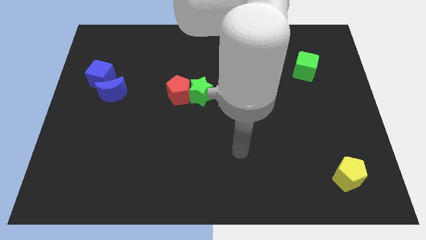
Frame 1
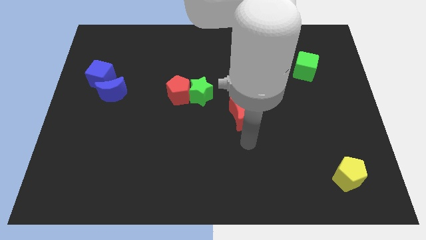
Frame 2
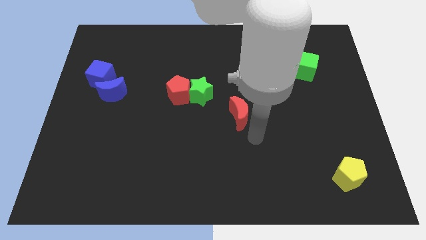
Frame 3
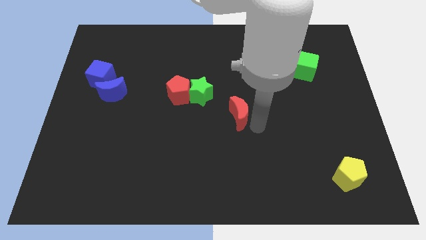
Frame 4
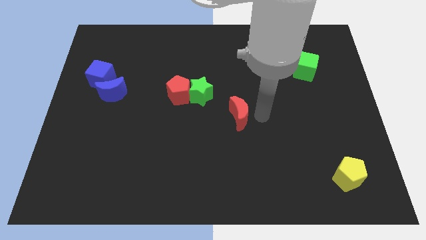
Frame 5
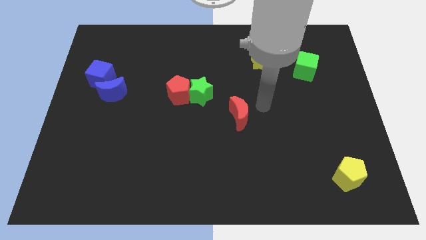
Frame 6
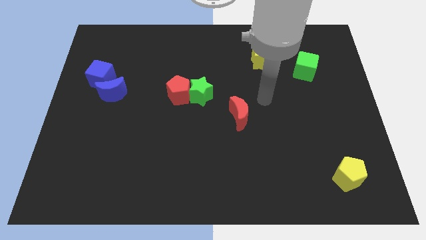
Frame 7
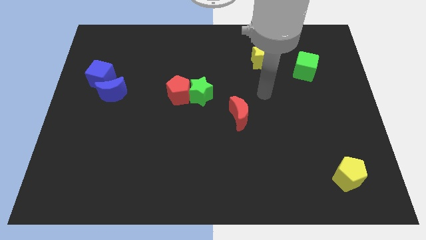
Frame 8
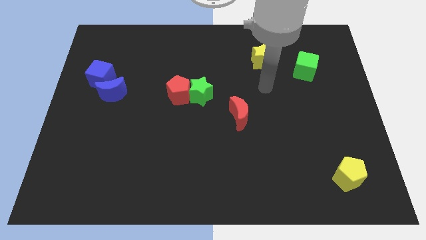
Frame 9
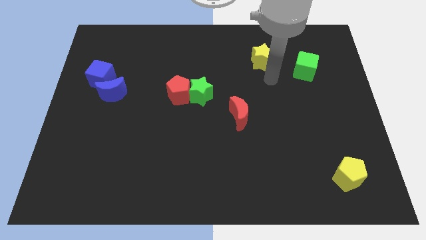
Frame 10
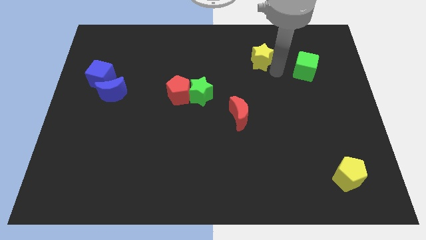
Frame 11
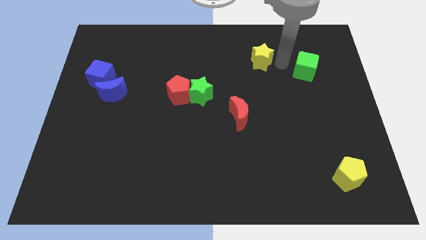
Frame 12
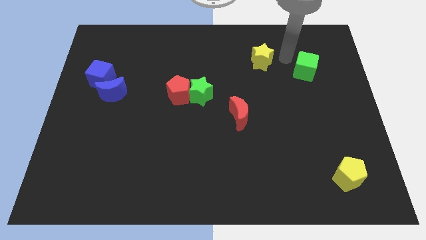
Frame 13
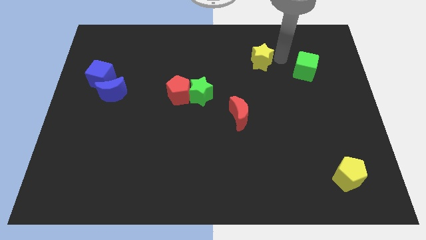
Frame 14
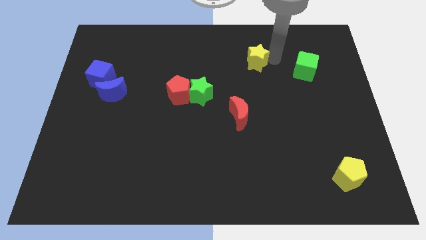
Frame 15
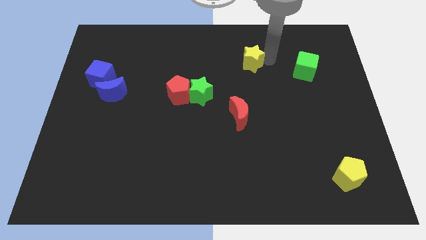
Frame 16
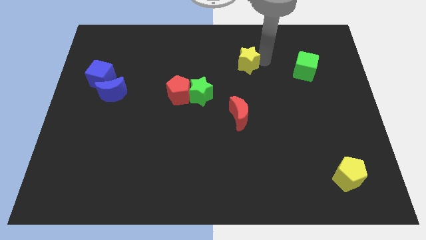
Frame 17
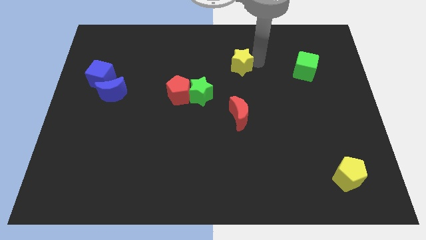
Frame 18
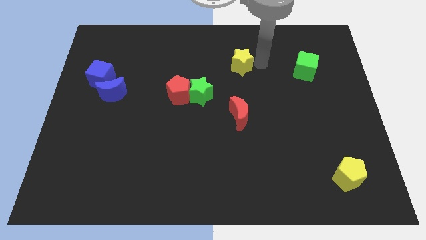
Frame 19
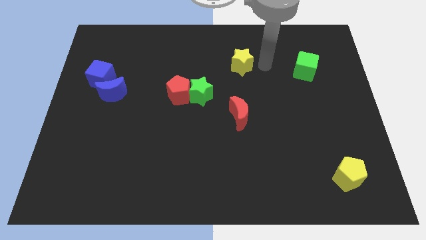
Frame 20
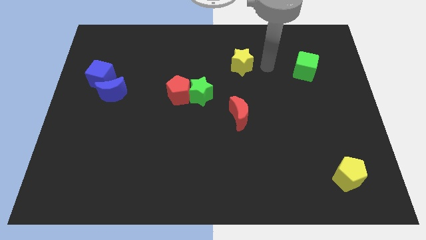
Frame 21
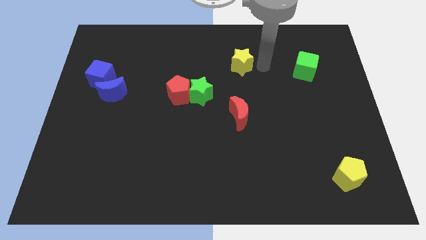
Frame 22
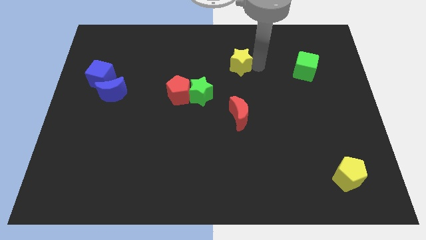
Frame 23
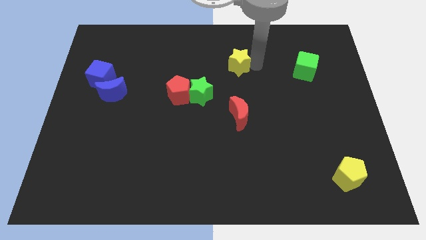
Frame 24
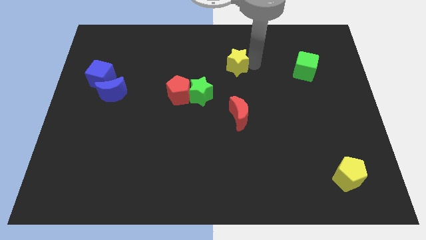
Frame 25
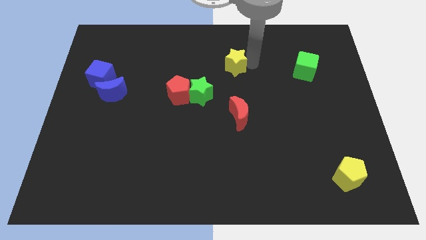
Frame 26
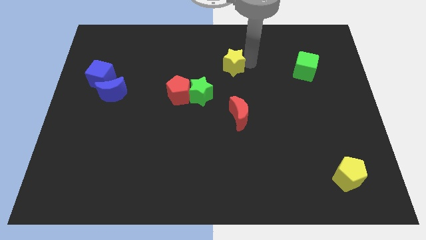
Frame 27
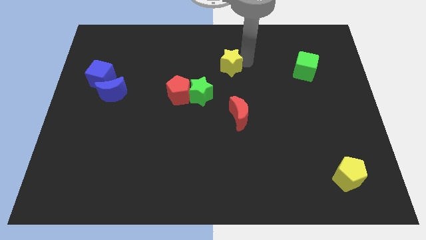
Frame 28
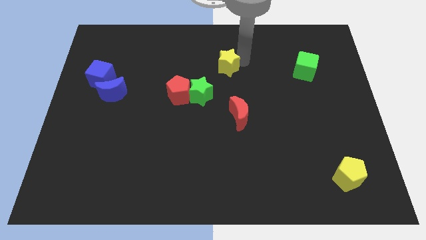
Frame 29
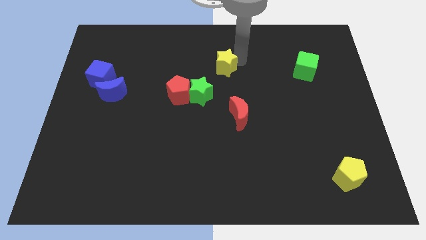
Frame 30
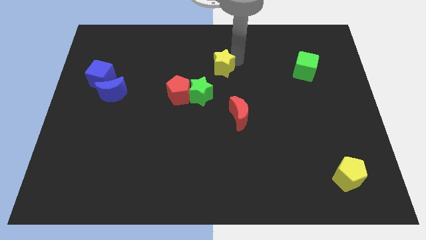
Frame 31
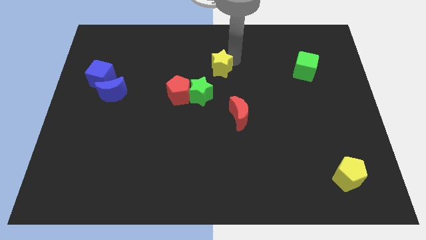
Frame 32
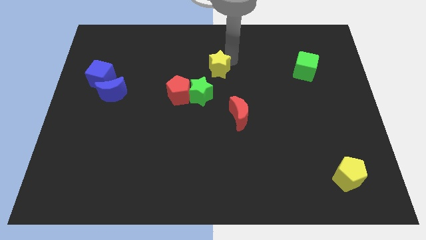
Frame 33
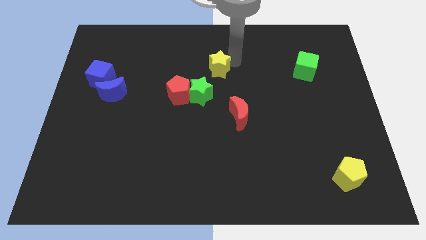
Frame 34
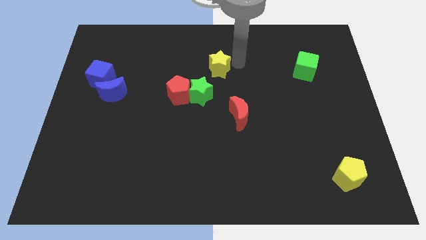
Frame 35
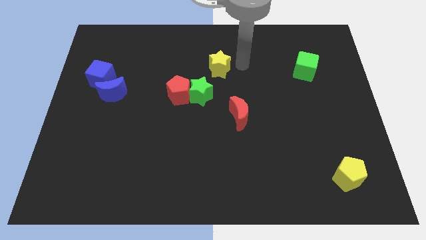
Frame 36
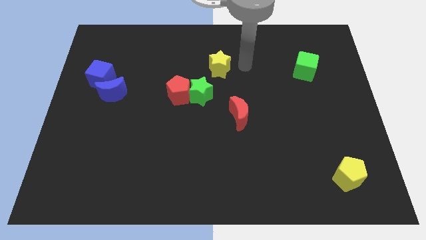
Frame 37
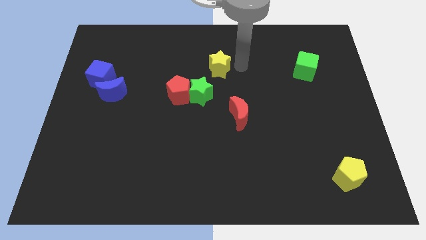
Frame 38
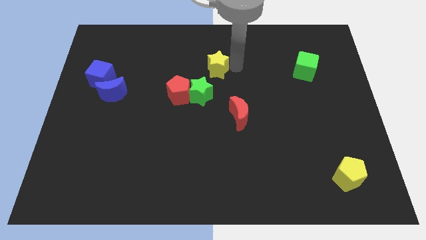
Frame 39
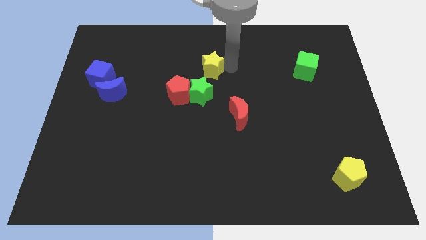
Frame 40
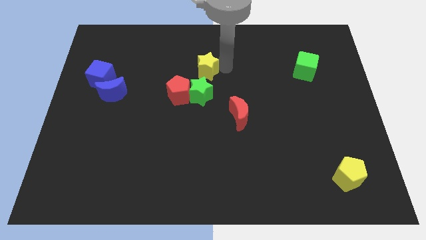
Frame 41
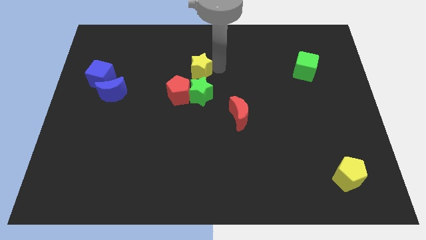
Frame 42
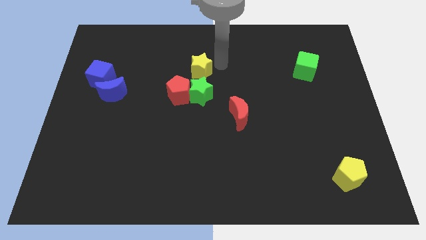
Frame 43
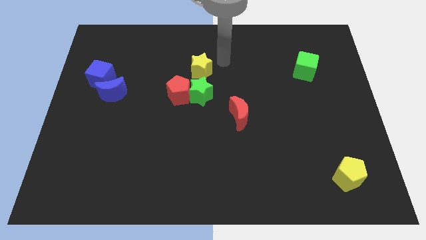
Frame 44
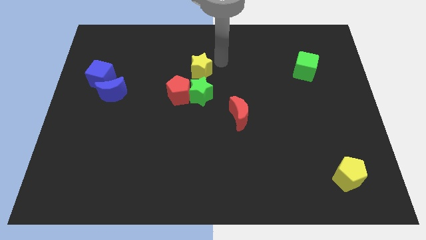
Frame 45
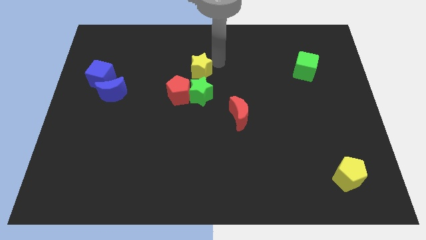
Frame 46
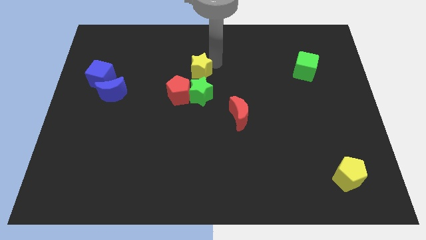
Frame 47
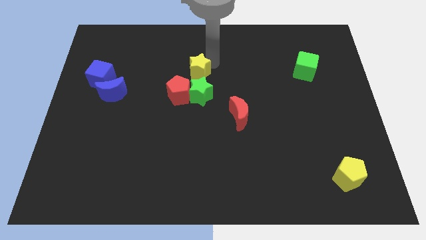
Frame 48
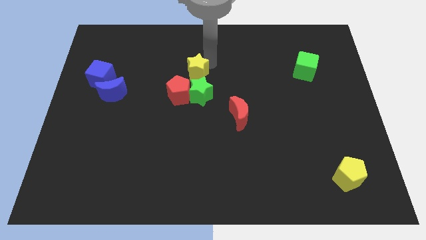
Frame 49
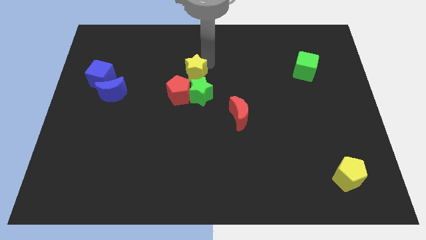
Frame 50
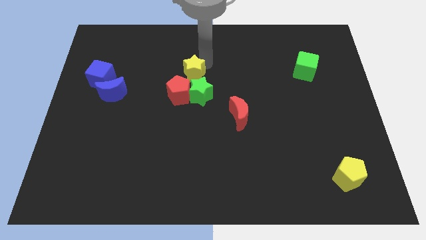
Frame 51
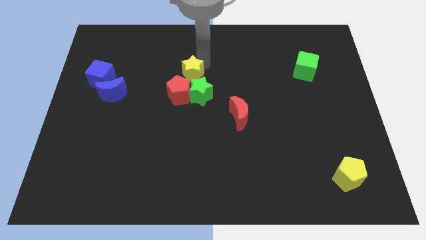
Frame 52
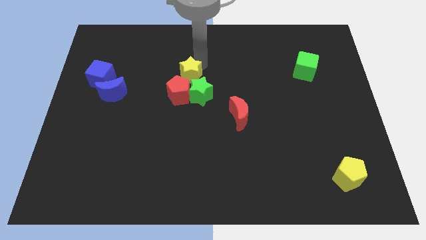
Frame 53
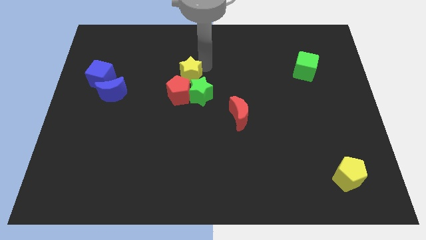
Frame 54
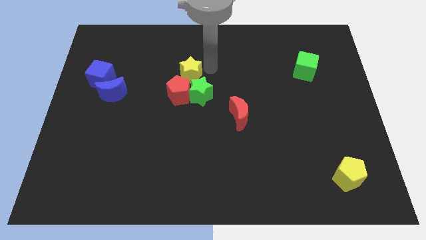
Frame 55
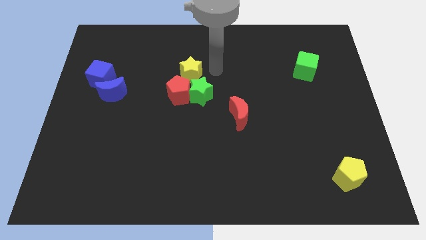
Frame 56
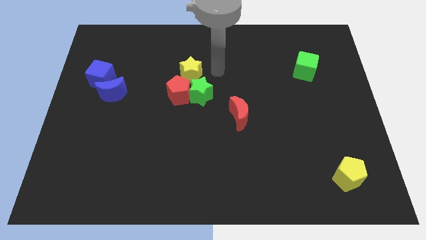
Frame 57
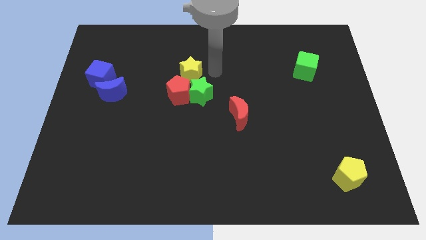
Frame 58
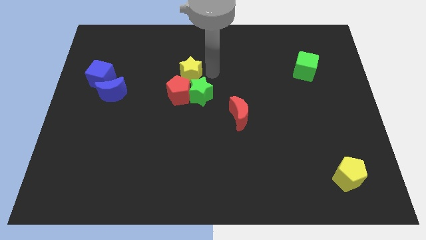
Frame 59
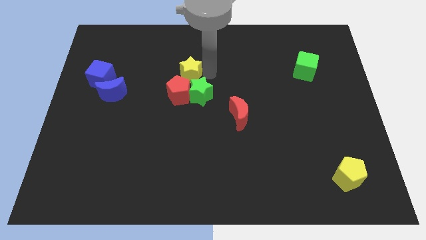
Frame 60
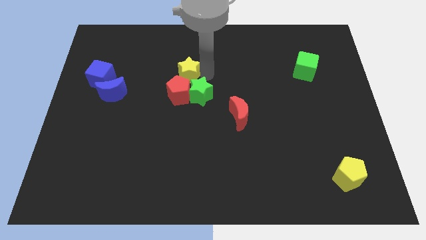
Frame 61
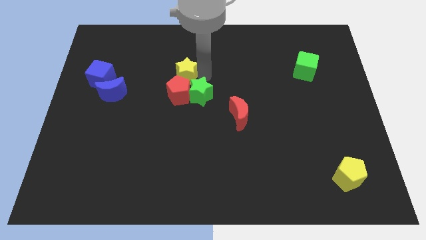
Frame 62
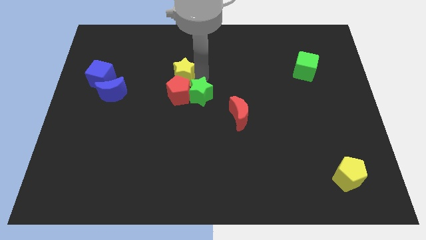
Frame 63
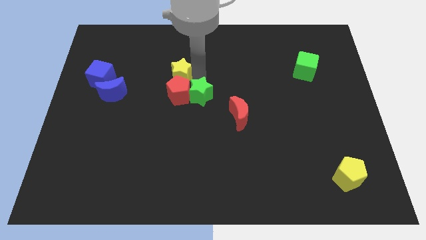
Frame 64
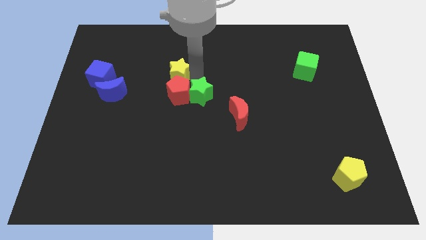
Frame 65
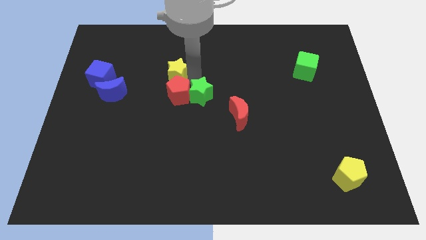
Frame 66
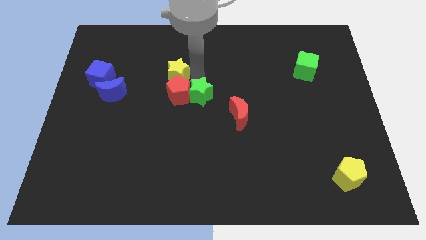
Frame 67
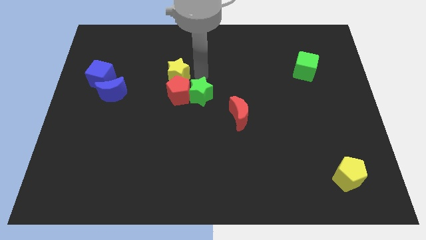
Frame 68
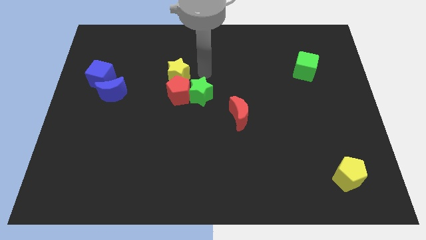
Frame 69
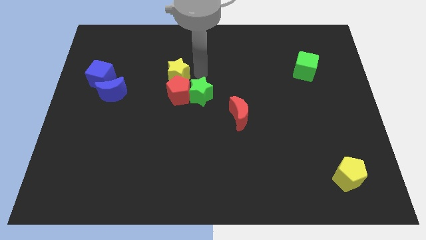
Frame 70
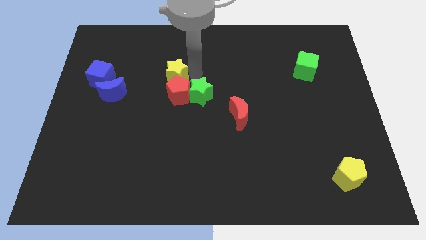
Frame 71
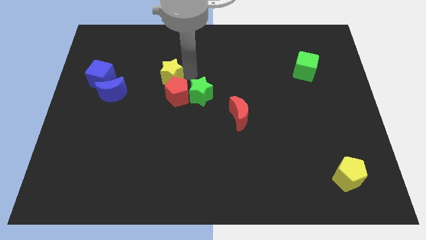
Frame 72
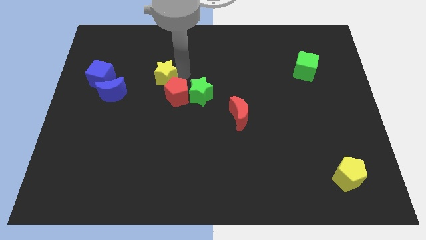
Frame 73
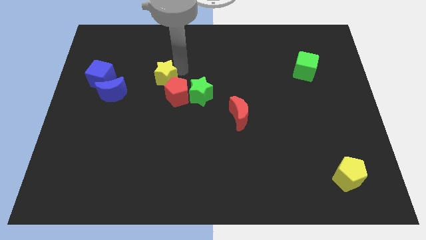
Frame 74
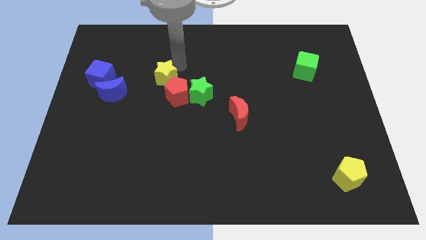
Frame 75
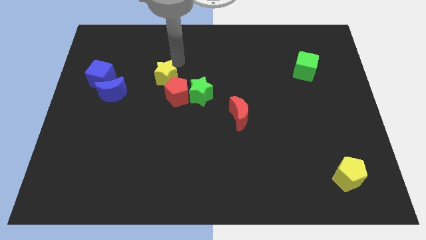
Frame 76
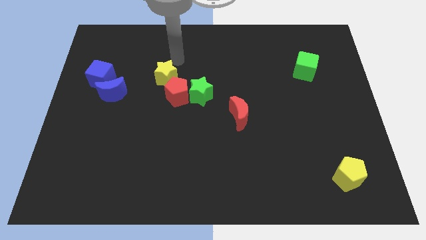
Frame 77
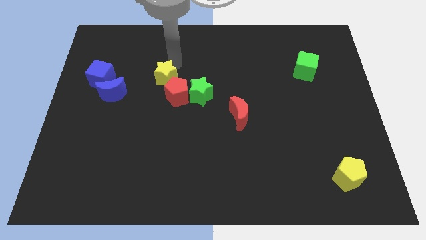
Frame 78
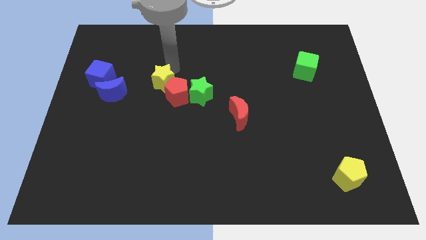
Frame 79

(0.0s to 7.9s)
slide the yellow star to the left of the green star

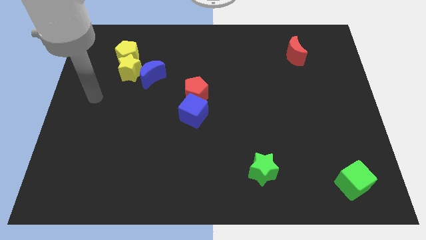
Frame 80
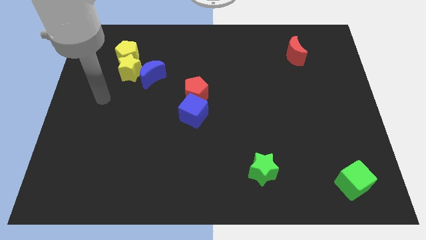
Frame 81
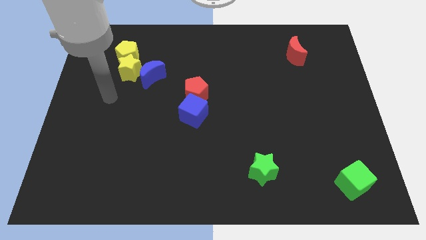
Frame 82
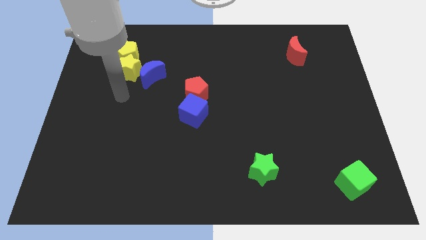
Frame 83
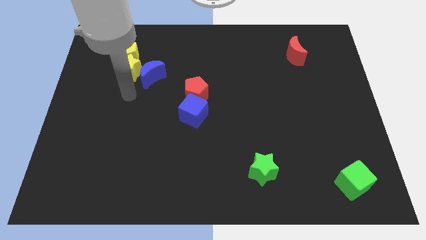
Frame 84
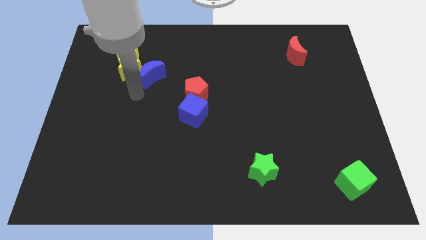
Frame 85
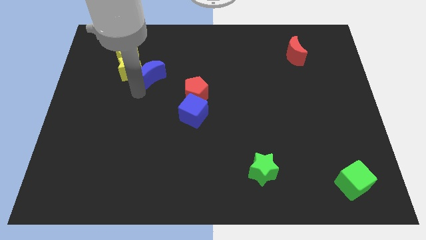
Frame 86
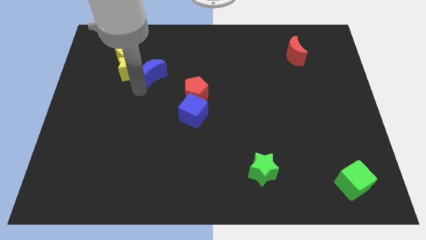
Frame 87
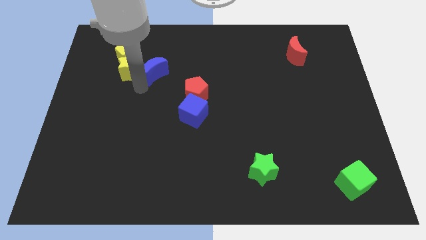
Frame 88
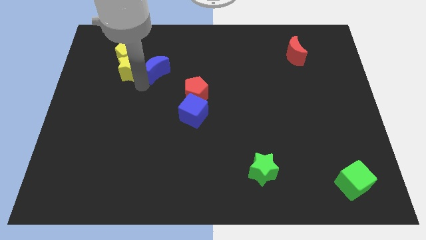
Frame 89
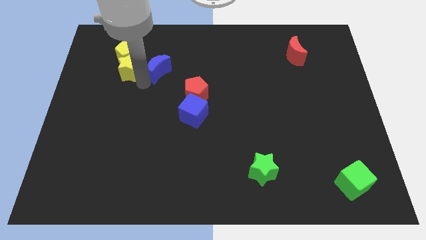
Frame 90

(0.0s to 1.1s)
move the blue moon to the right of the yellow pentagon
